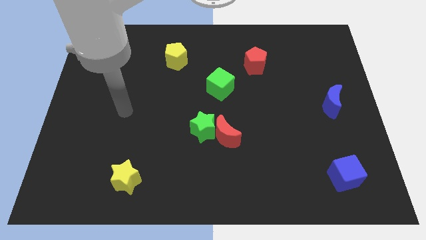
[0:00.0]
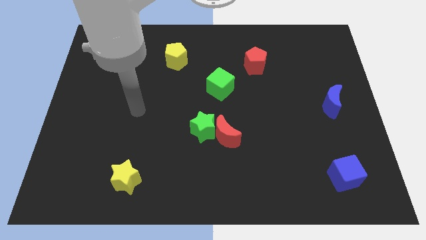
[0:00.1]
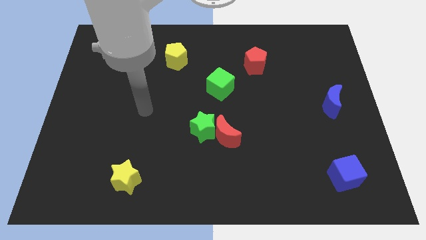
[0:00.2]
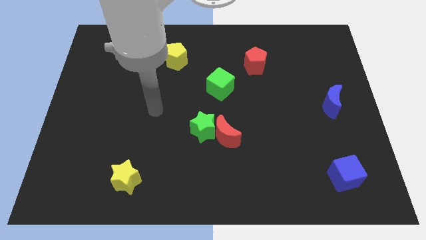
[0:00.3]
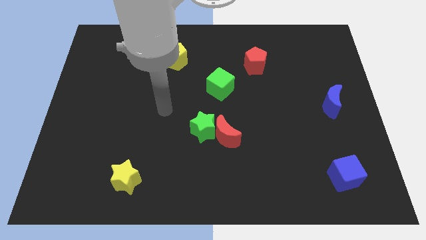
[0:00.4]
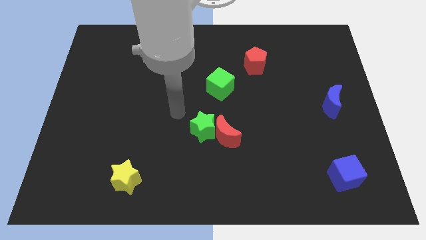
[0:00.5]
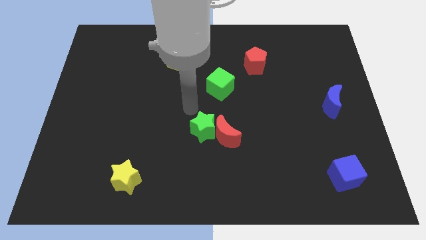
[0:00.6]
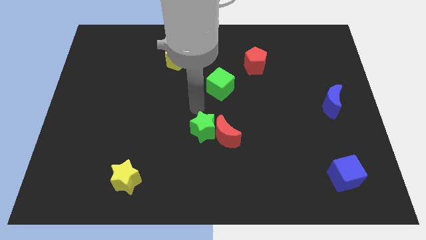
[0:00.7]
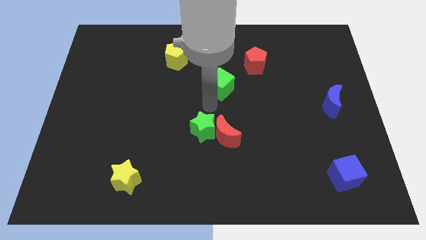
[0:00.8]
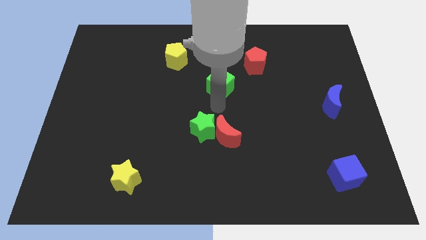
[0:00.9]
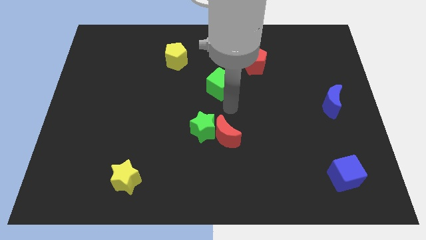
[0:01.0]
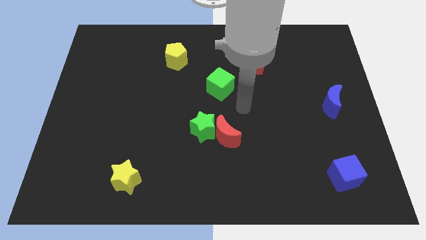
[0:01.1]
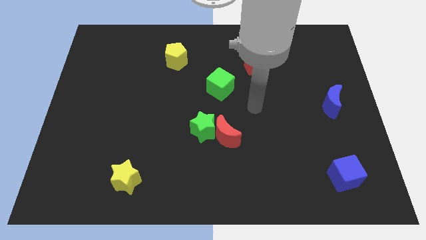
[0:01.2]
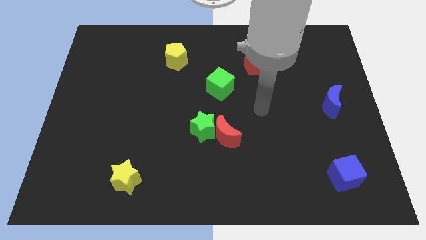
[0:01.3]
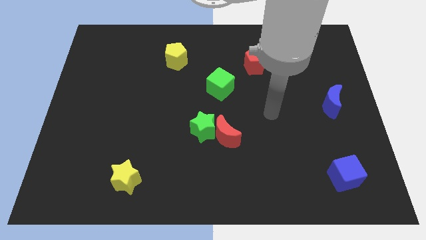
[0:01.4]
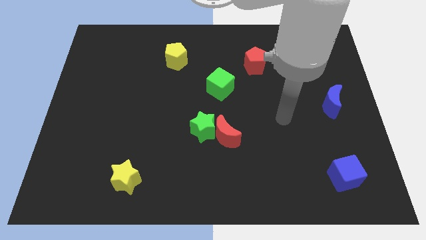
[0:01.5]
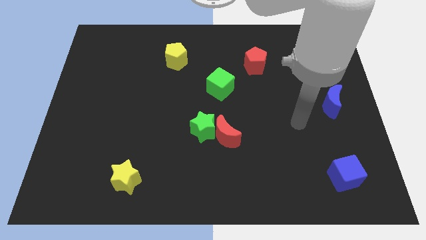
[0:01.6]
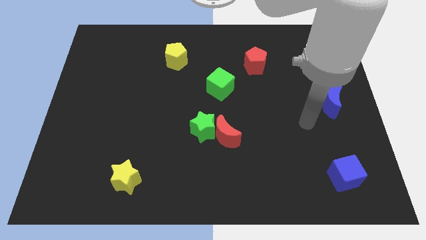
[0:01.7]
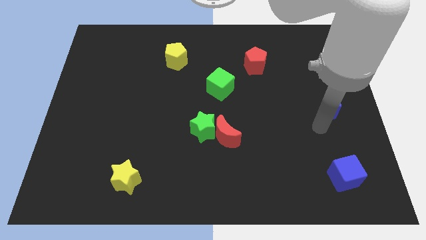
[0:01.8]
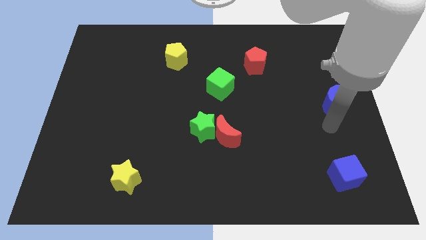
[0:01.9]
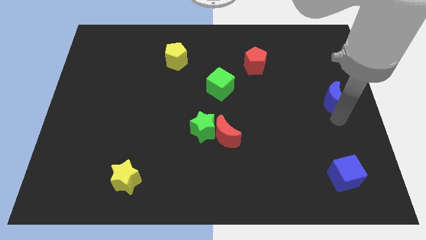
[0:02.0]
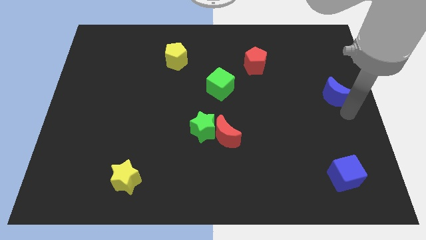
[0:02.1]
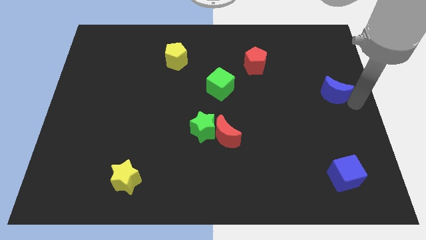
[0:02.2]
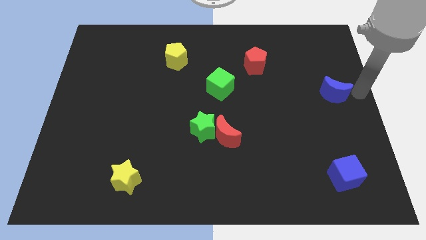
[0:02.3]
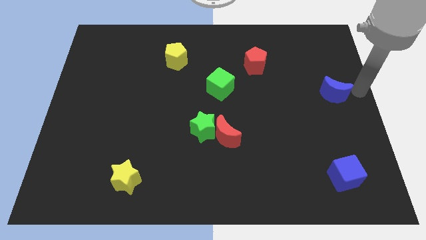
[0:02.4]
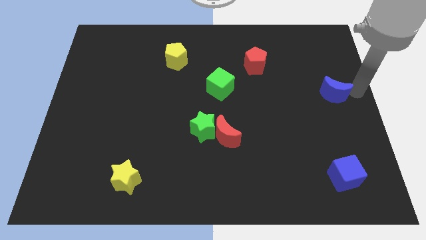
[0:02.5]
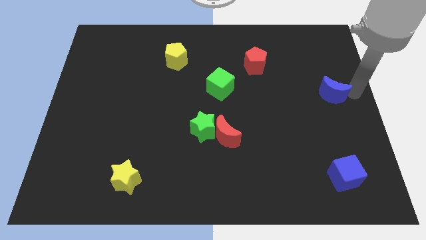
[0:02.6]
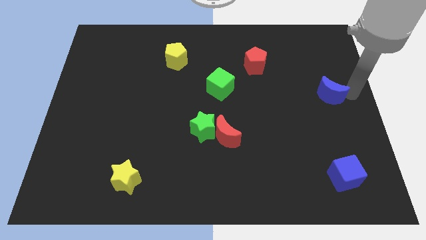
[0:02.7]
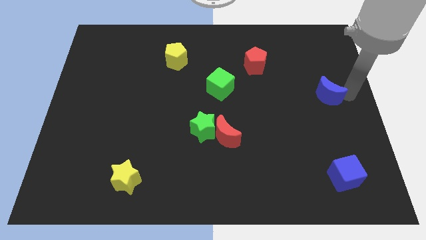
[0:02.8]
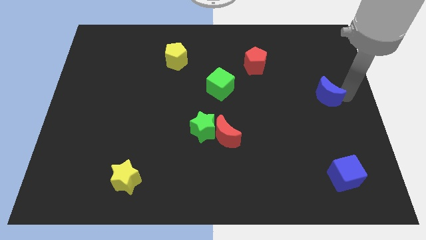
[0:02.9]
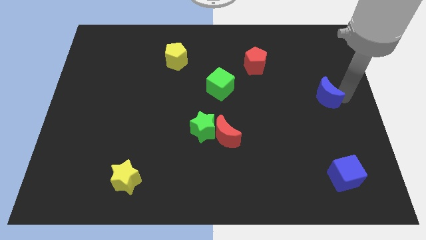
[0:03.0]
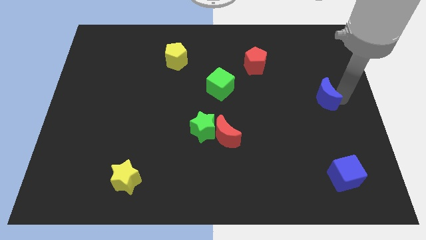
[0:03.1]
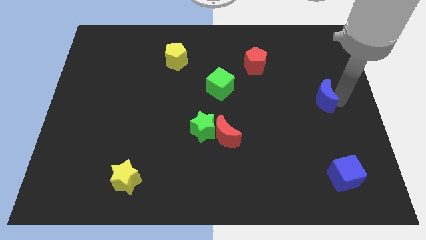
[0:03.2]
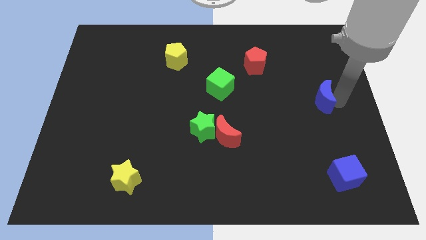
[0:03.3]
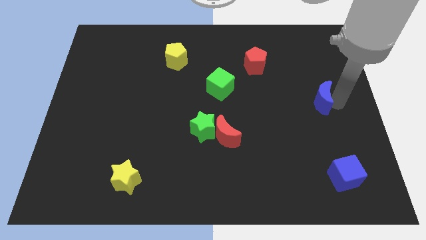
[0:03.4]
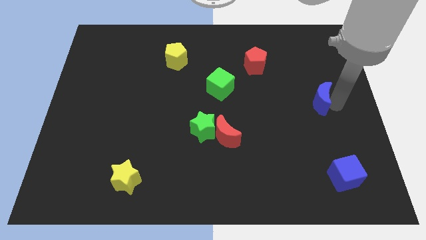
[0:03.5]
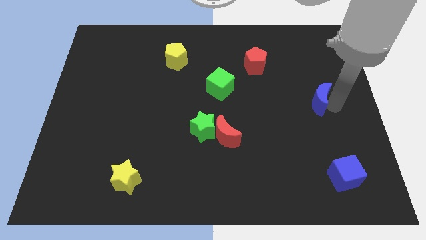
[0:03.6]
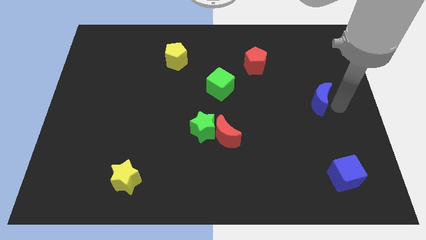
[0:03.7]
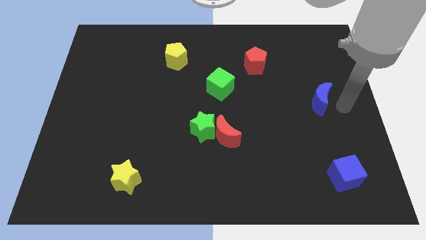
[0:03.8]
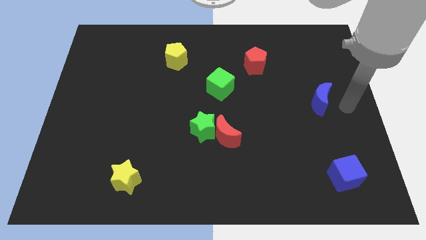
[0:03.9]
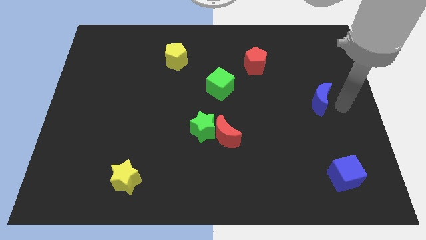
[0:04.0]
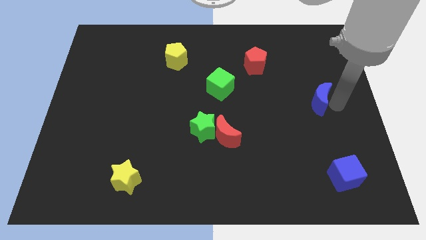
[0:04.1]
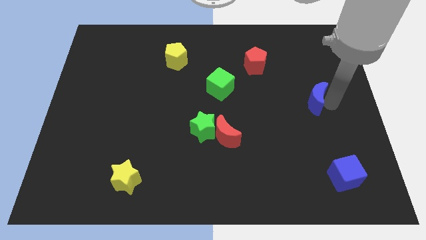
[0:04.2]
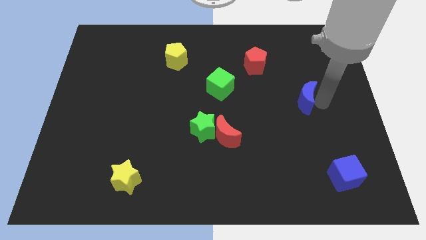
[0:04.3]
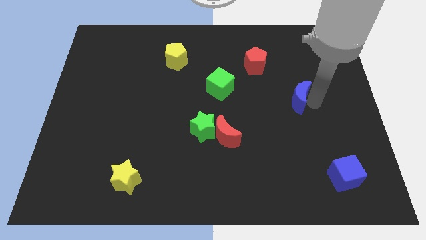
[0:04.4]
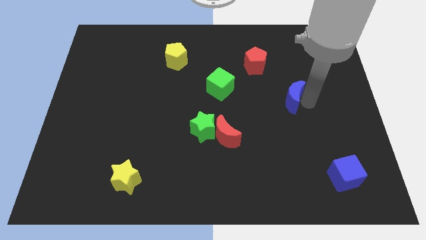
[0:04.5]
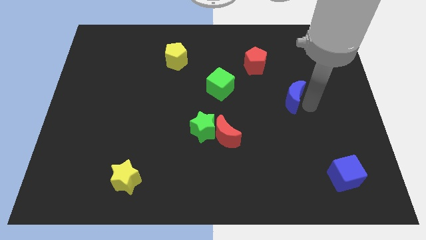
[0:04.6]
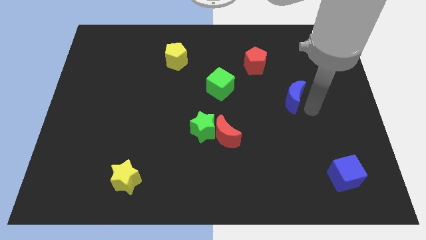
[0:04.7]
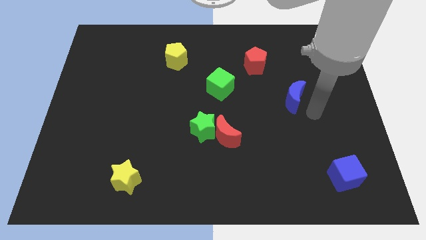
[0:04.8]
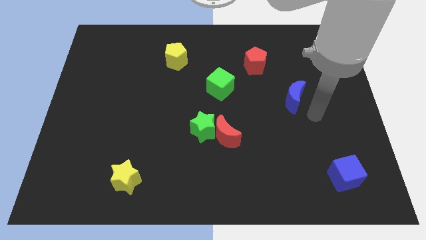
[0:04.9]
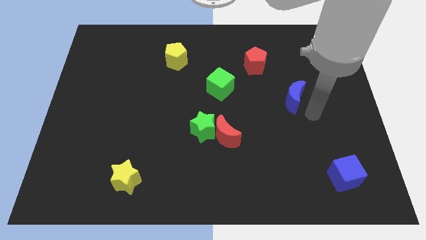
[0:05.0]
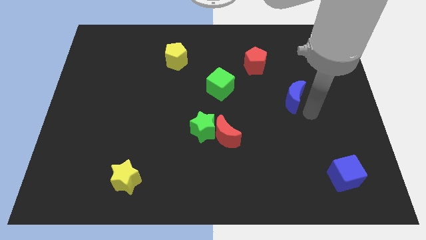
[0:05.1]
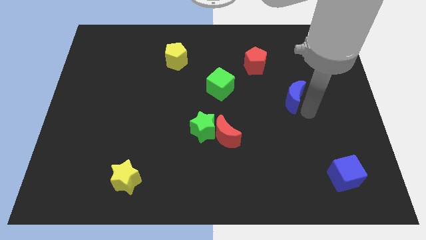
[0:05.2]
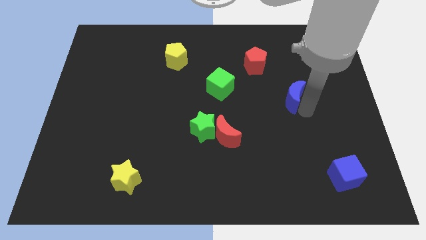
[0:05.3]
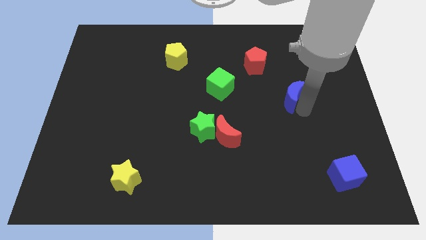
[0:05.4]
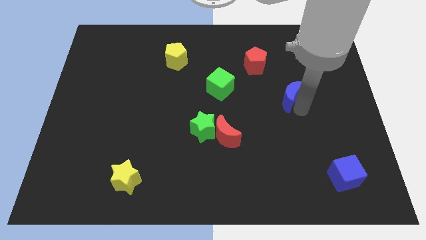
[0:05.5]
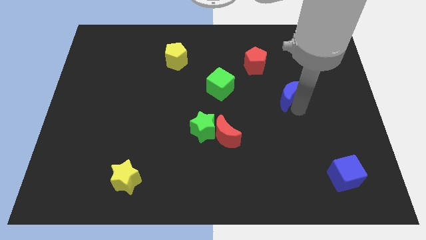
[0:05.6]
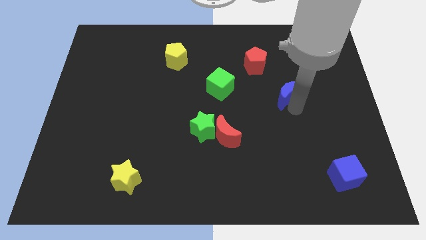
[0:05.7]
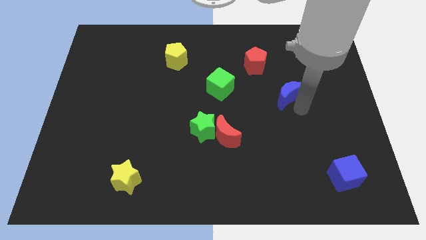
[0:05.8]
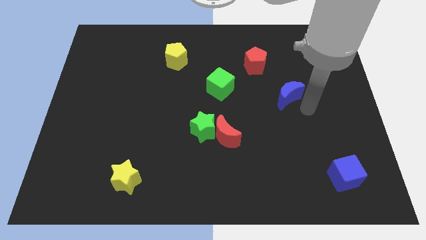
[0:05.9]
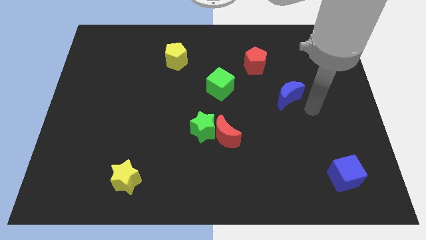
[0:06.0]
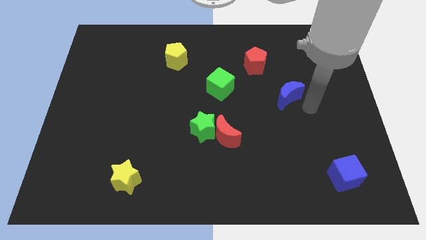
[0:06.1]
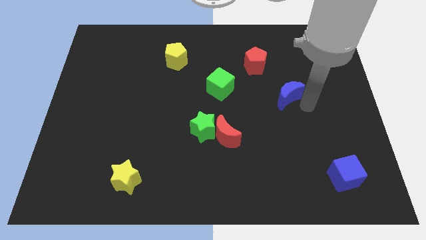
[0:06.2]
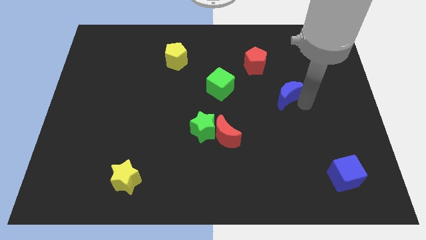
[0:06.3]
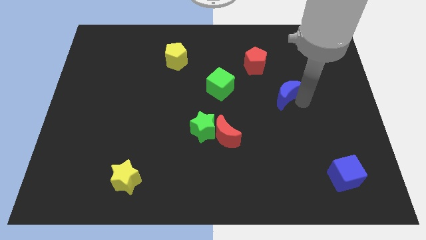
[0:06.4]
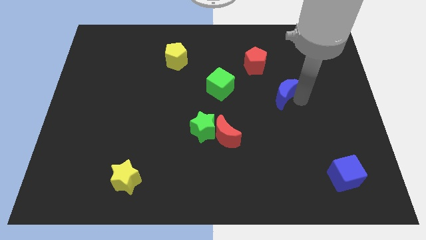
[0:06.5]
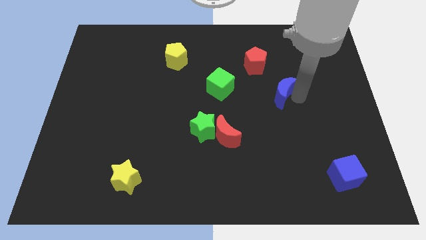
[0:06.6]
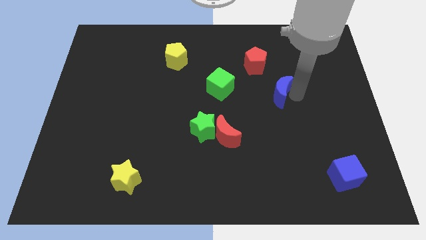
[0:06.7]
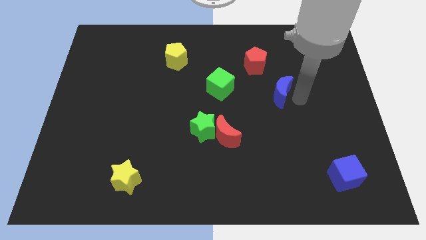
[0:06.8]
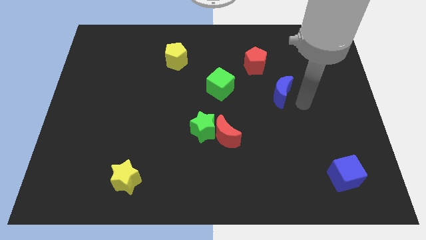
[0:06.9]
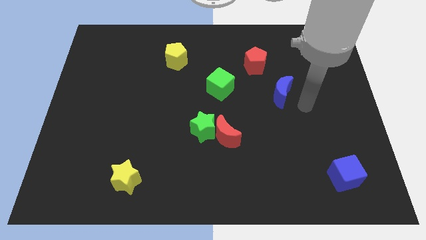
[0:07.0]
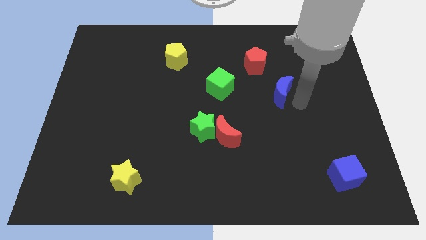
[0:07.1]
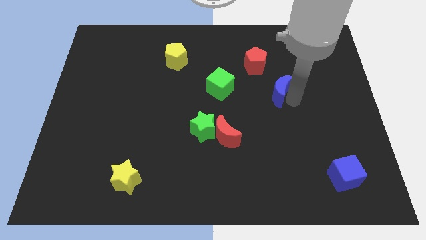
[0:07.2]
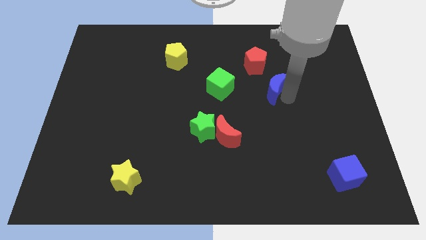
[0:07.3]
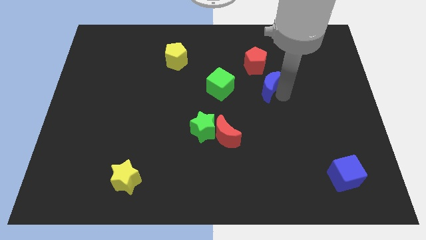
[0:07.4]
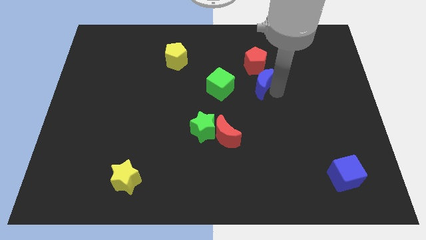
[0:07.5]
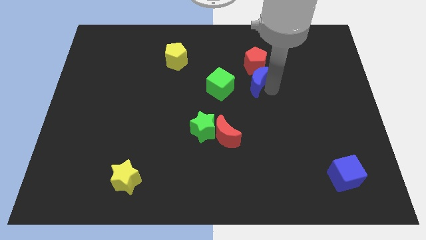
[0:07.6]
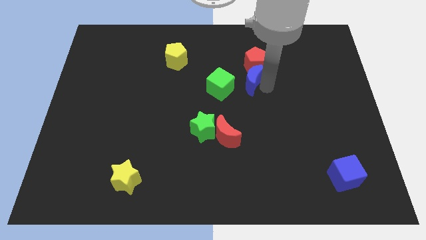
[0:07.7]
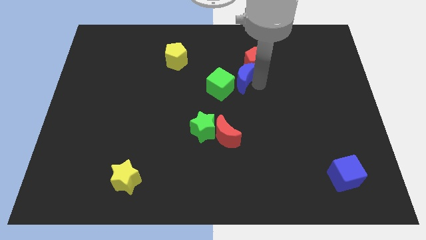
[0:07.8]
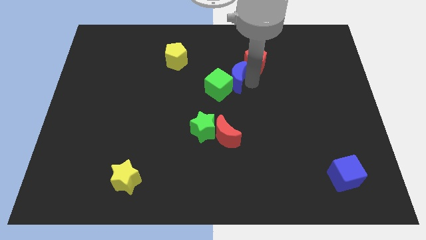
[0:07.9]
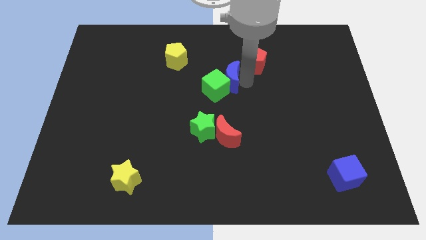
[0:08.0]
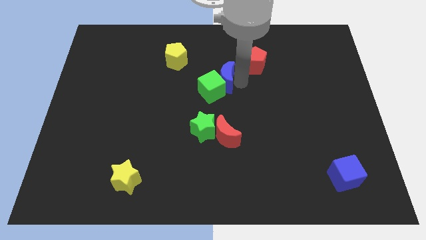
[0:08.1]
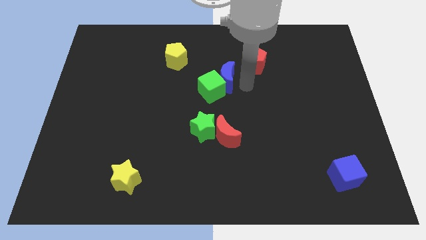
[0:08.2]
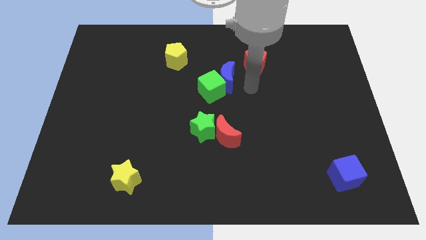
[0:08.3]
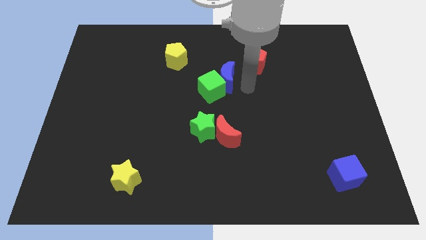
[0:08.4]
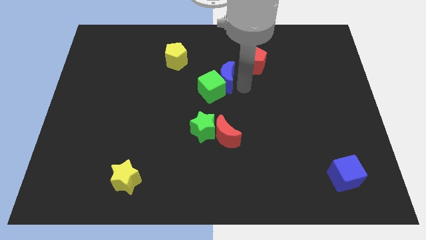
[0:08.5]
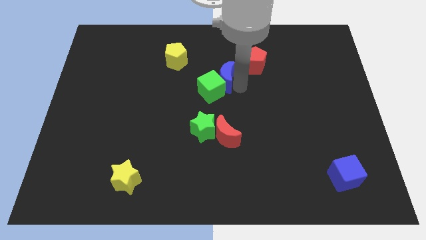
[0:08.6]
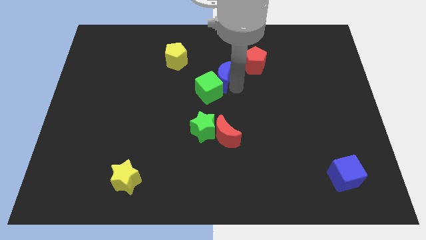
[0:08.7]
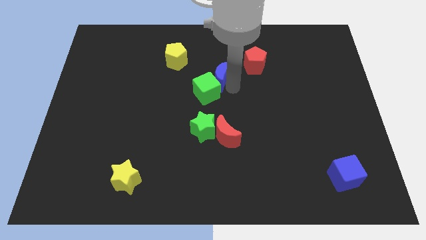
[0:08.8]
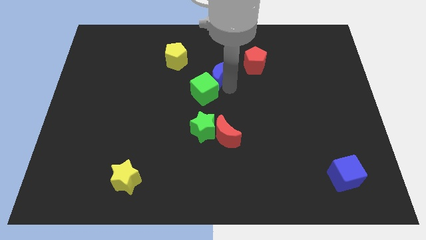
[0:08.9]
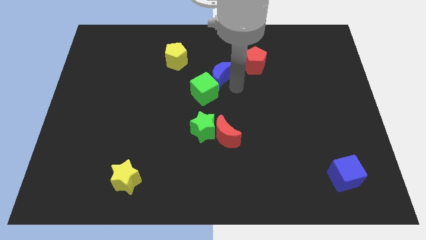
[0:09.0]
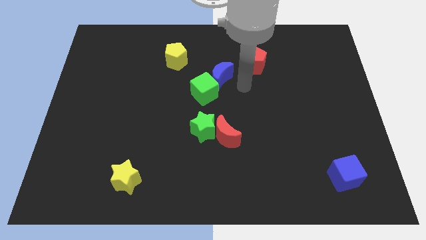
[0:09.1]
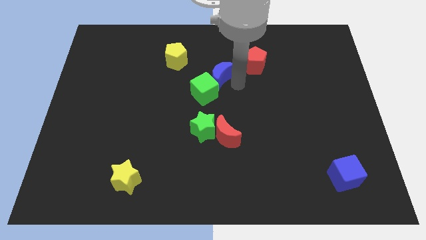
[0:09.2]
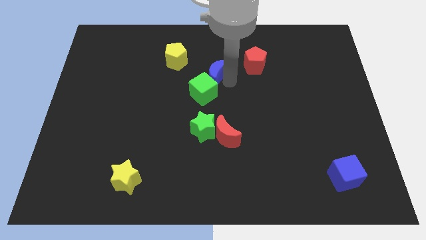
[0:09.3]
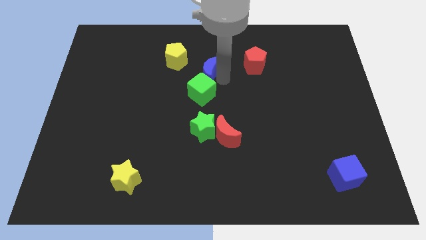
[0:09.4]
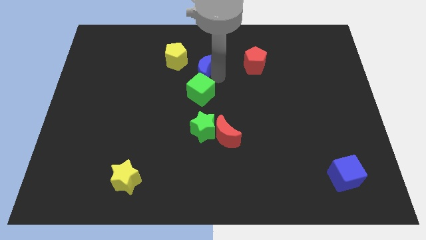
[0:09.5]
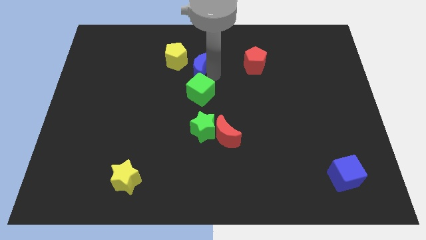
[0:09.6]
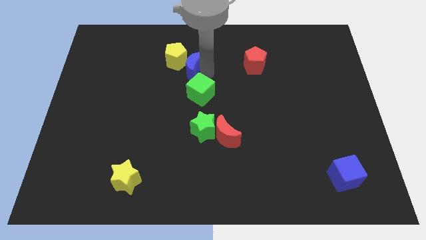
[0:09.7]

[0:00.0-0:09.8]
slide the blue moon close to the yellow pentagon
